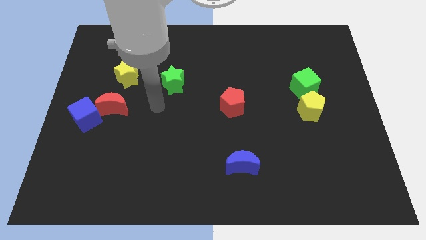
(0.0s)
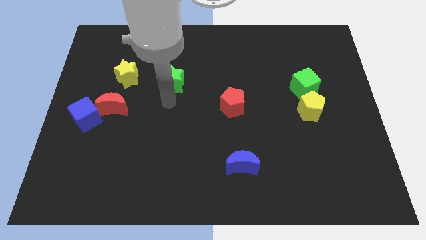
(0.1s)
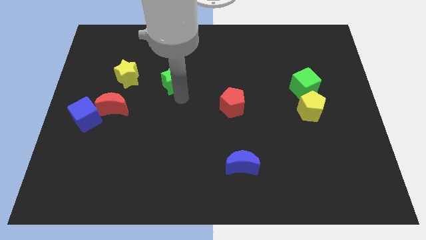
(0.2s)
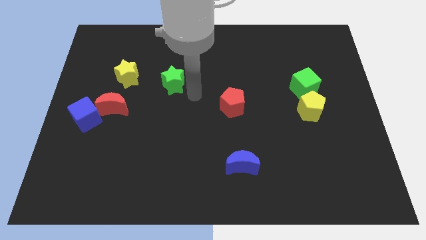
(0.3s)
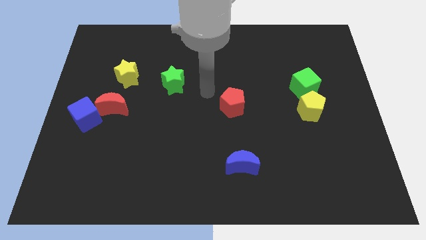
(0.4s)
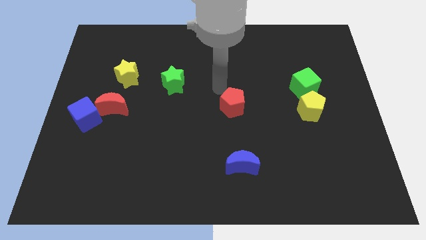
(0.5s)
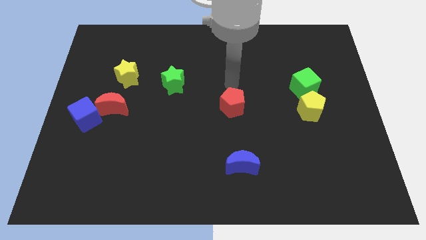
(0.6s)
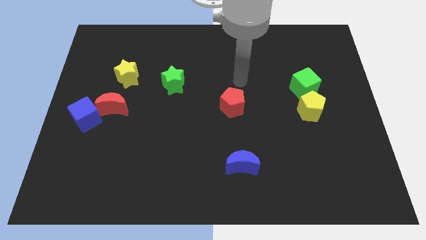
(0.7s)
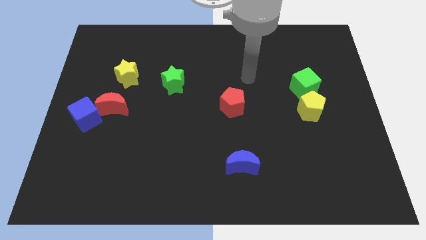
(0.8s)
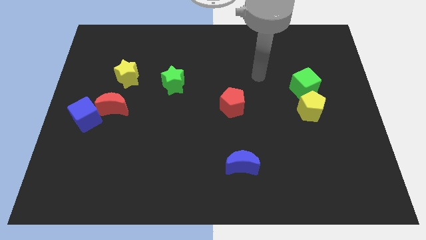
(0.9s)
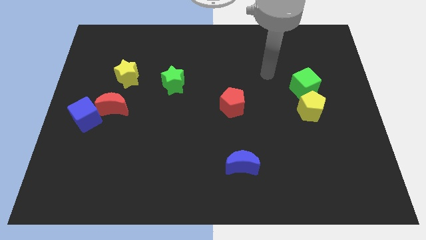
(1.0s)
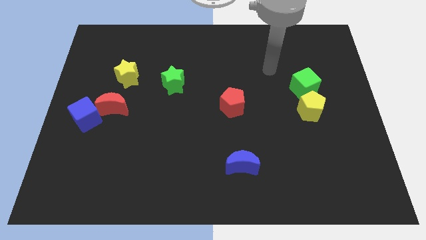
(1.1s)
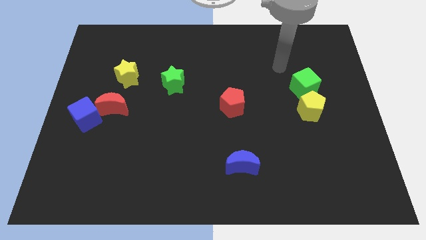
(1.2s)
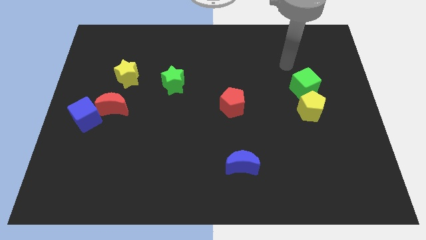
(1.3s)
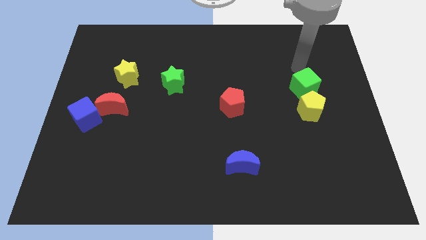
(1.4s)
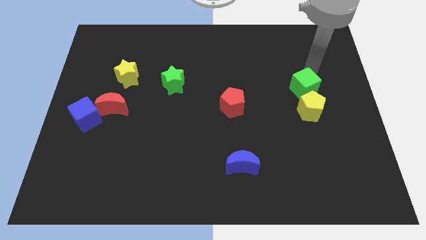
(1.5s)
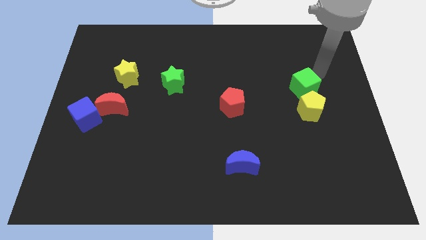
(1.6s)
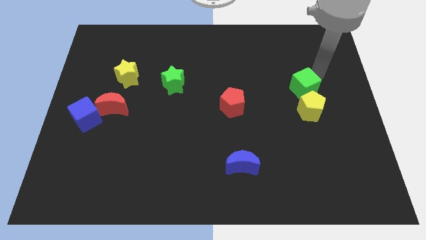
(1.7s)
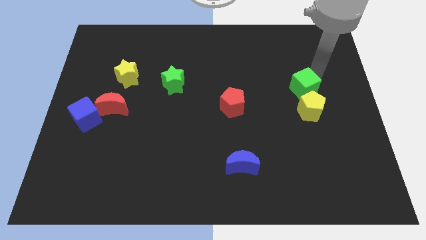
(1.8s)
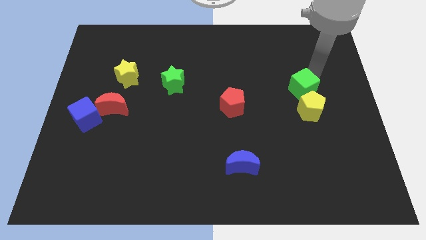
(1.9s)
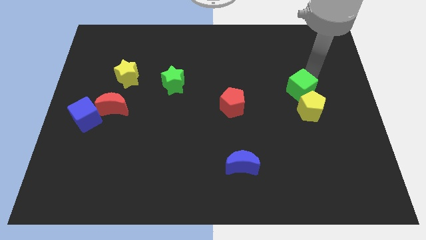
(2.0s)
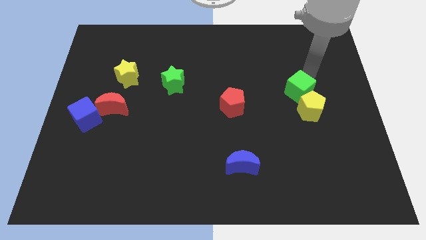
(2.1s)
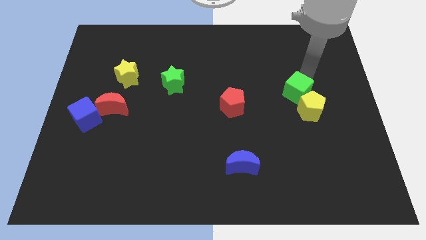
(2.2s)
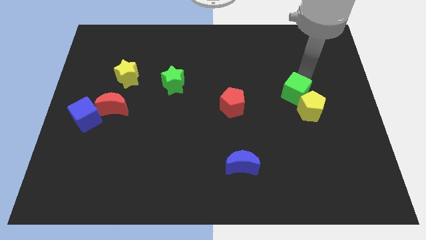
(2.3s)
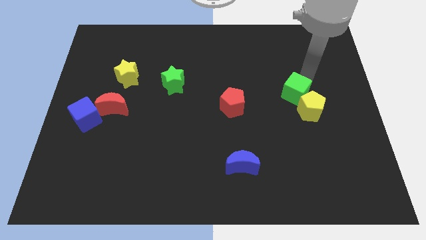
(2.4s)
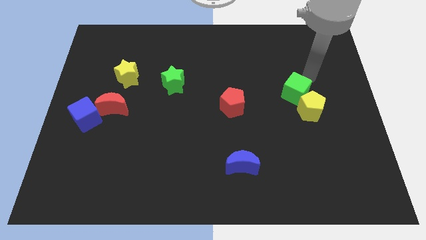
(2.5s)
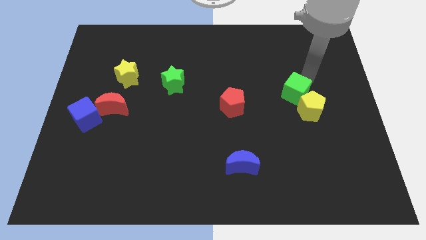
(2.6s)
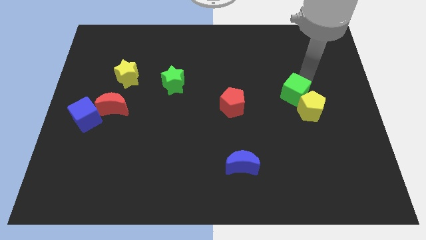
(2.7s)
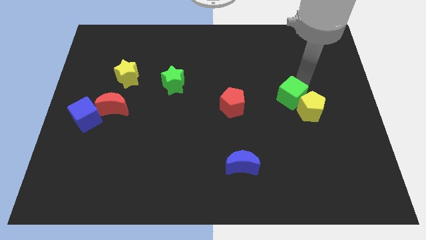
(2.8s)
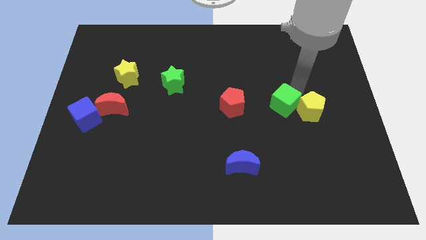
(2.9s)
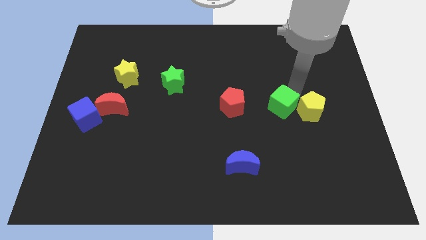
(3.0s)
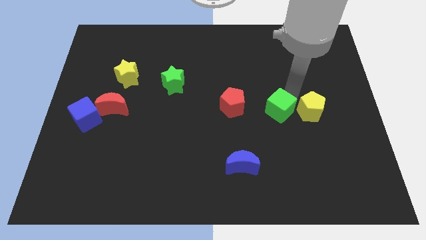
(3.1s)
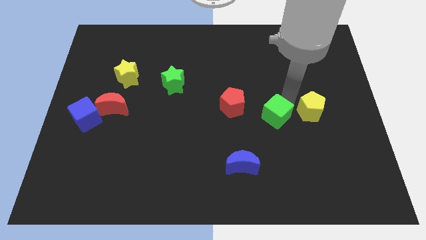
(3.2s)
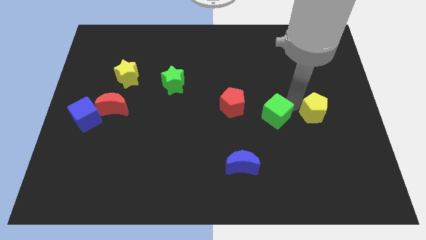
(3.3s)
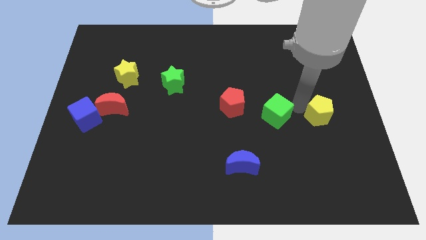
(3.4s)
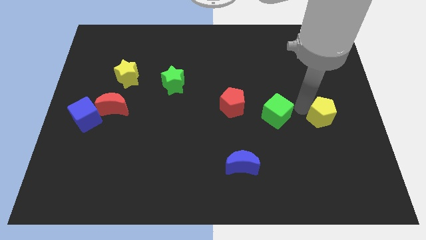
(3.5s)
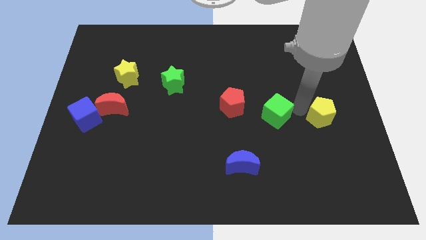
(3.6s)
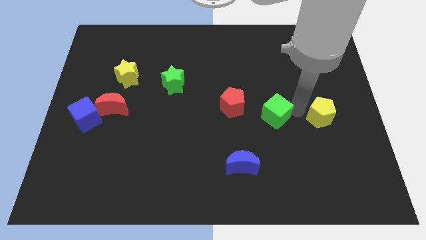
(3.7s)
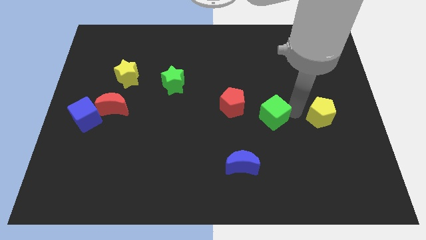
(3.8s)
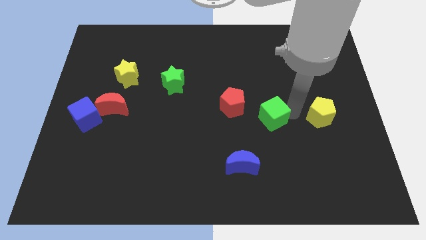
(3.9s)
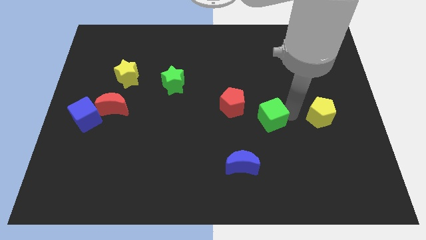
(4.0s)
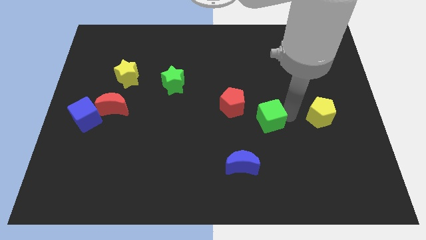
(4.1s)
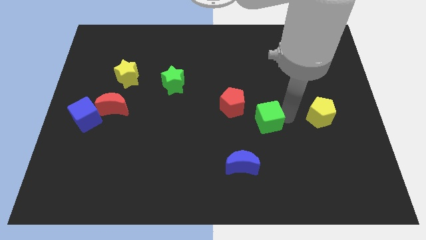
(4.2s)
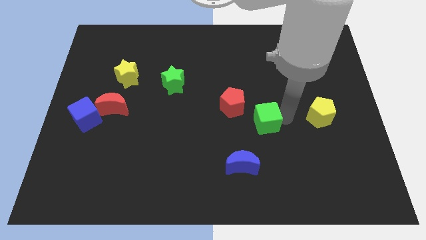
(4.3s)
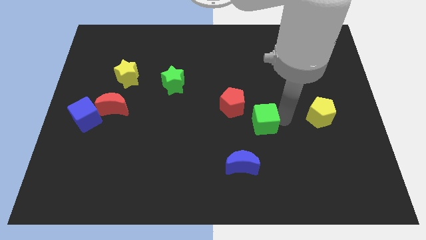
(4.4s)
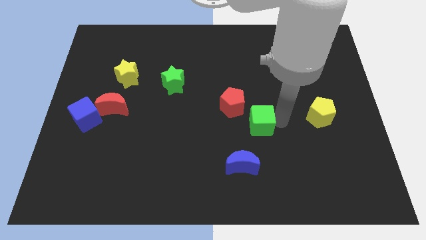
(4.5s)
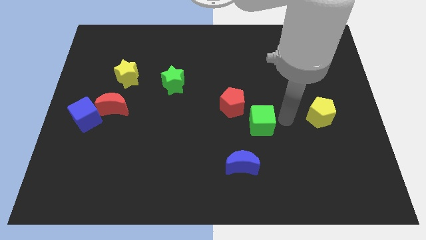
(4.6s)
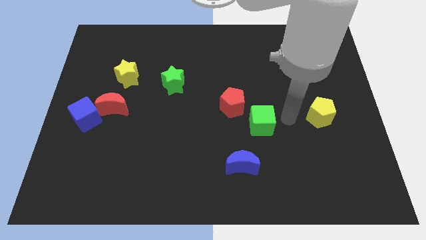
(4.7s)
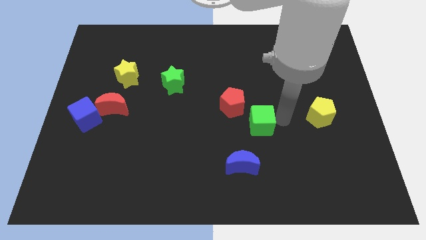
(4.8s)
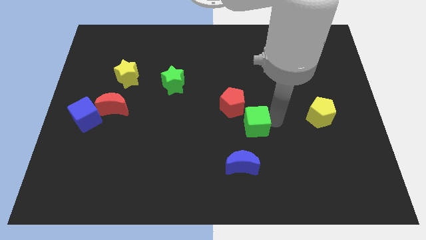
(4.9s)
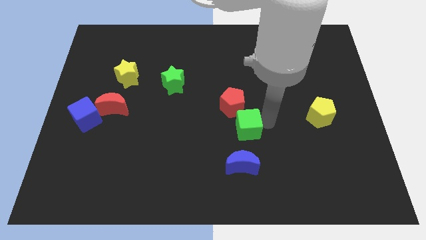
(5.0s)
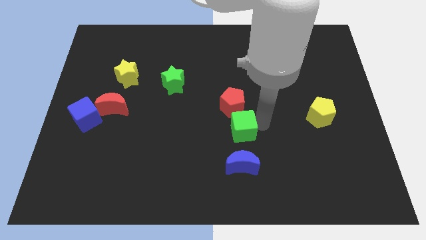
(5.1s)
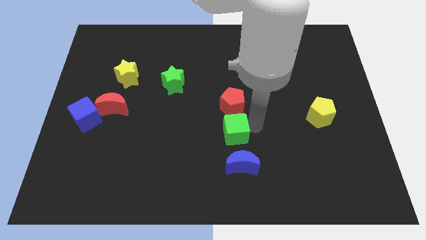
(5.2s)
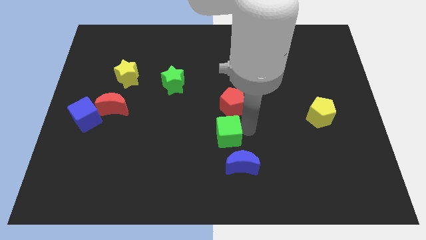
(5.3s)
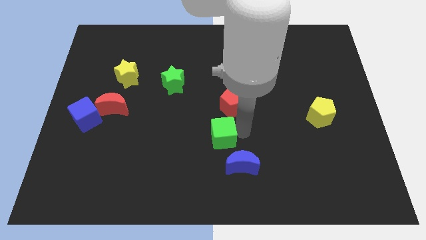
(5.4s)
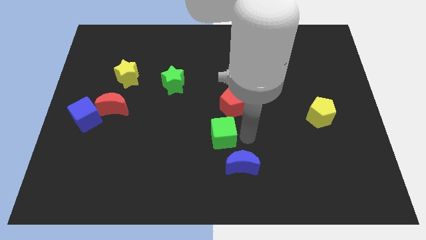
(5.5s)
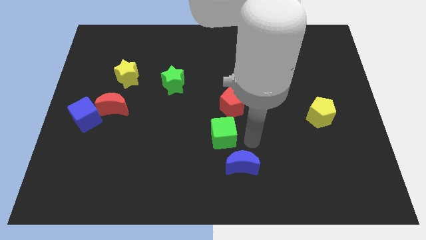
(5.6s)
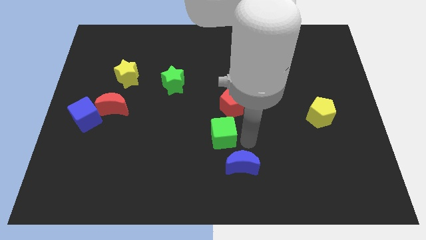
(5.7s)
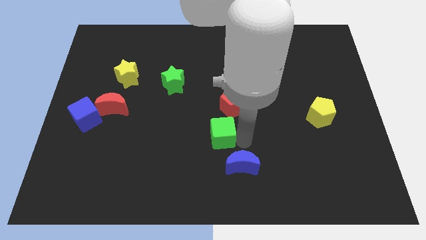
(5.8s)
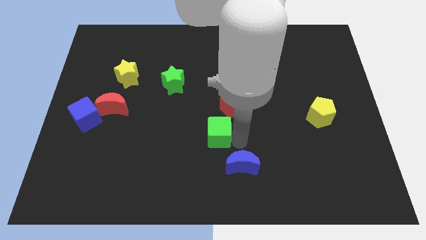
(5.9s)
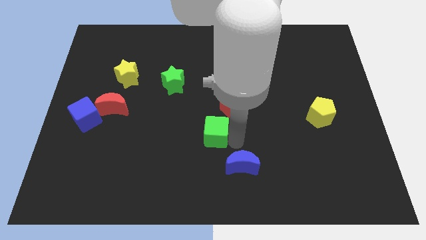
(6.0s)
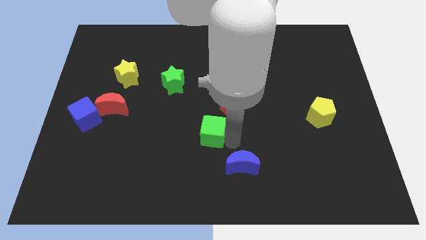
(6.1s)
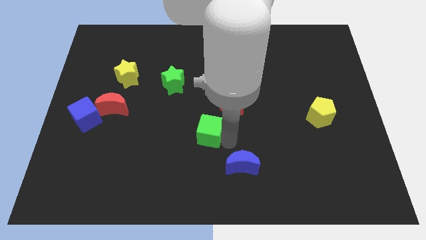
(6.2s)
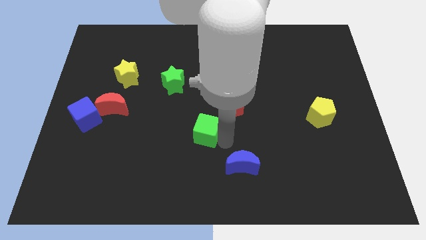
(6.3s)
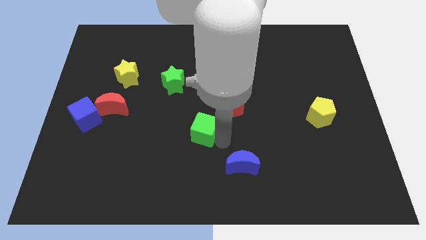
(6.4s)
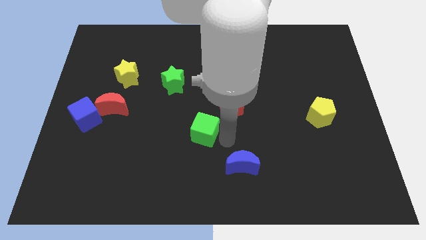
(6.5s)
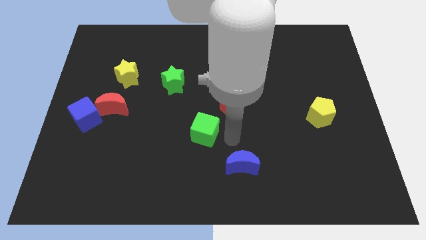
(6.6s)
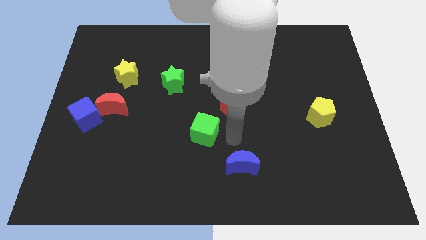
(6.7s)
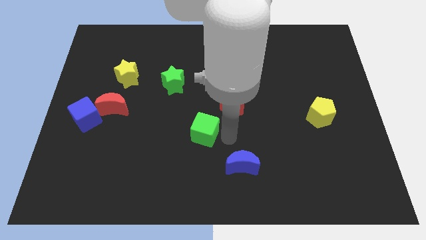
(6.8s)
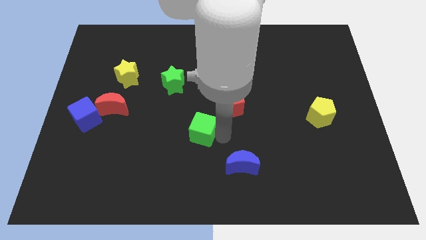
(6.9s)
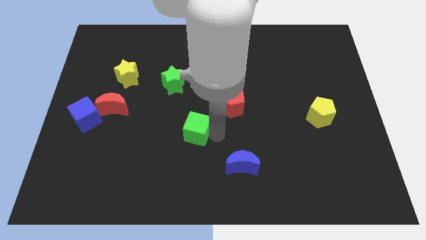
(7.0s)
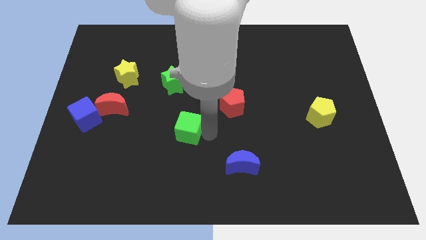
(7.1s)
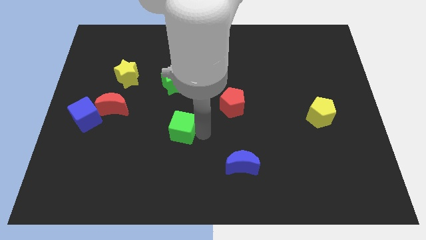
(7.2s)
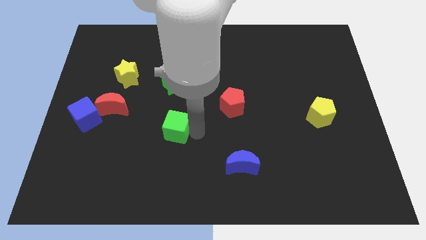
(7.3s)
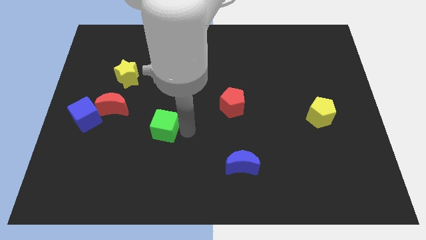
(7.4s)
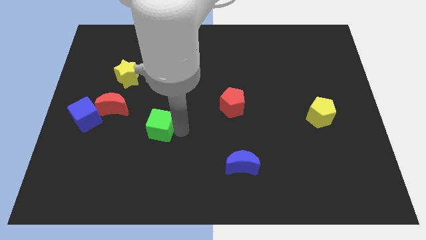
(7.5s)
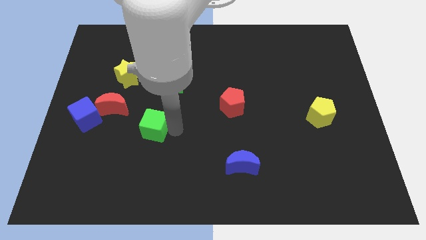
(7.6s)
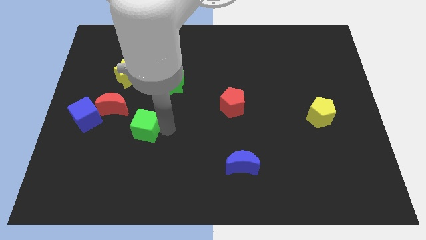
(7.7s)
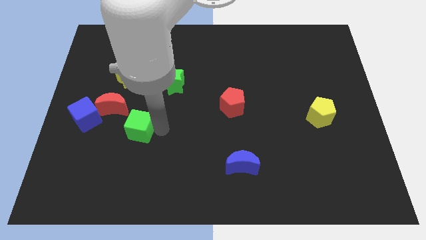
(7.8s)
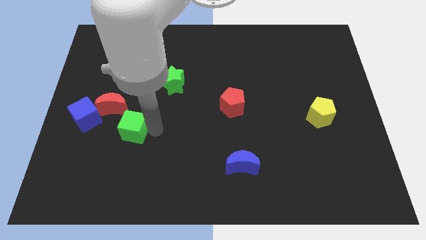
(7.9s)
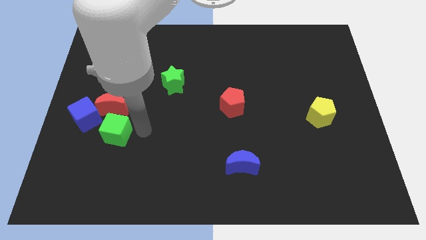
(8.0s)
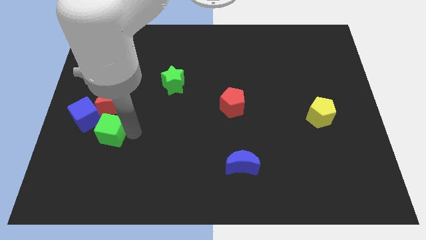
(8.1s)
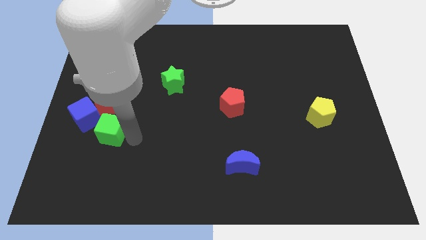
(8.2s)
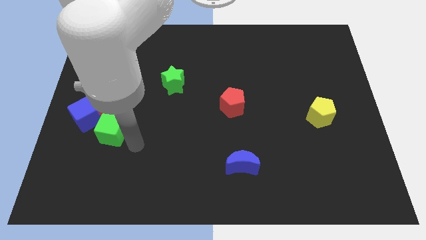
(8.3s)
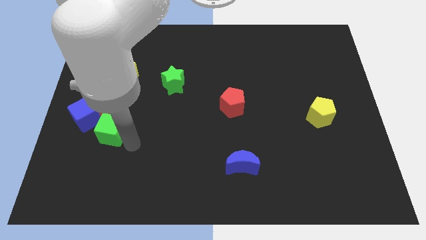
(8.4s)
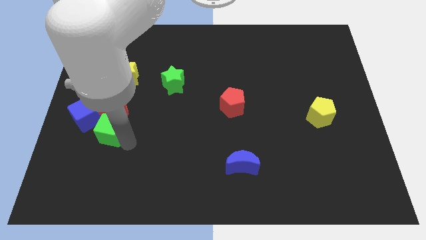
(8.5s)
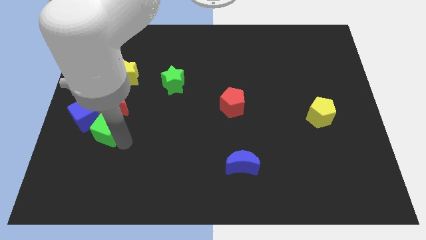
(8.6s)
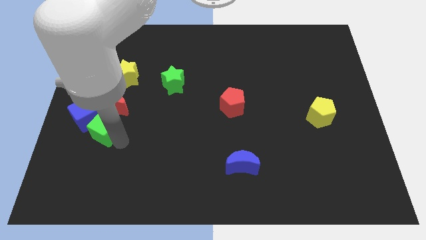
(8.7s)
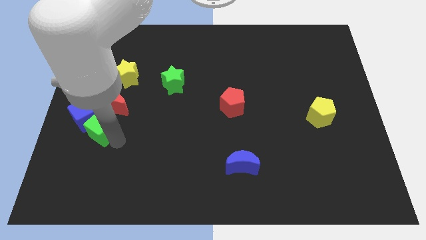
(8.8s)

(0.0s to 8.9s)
put the green cube towards the blue cube
